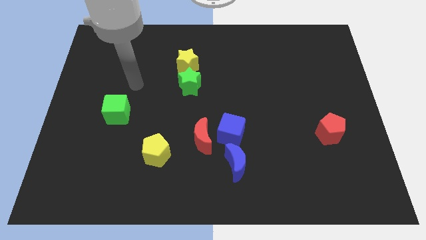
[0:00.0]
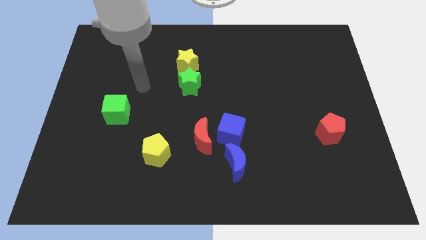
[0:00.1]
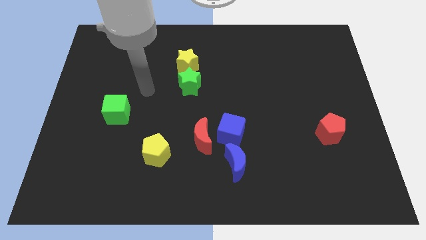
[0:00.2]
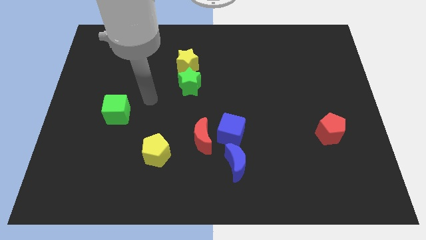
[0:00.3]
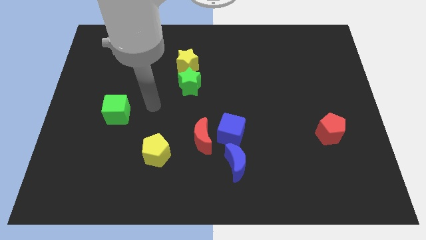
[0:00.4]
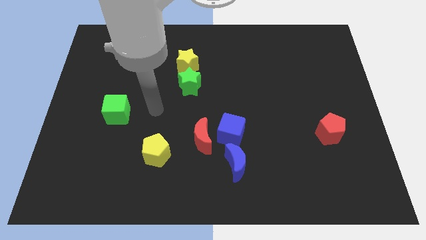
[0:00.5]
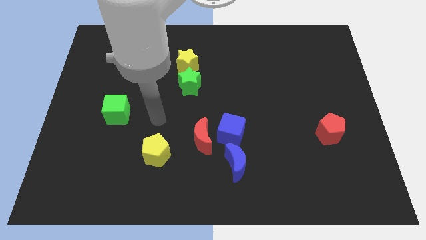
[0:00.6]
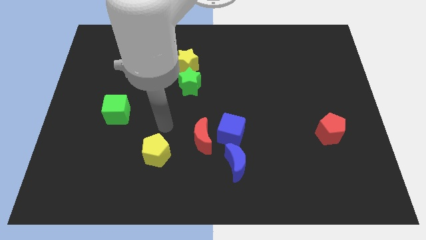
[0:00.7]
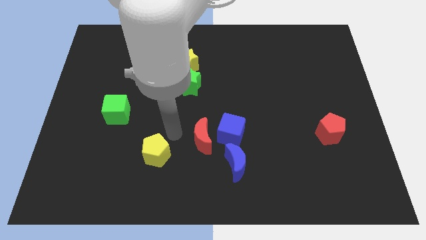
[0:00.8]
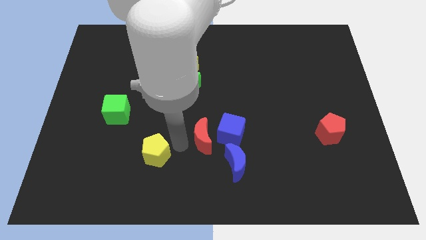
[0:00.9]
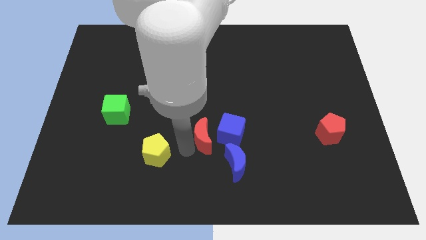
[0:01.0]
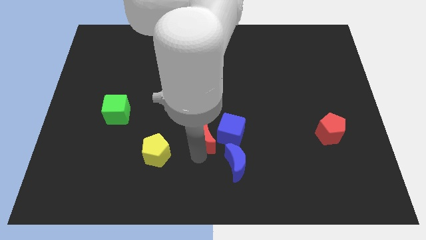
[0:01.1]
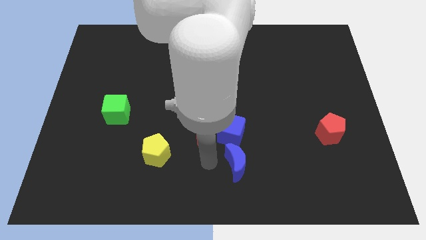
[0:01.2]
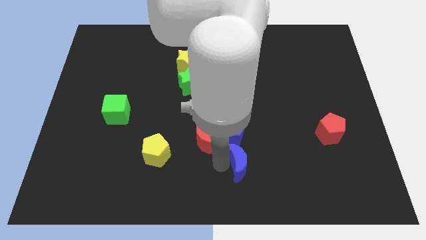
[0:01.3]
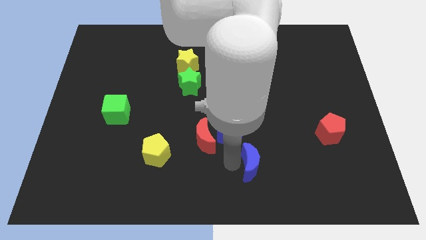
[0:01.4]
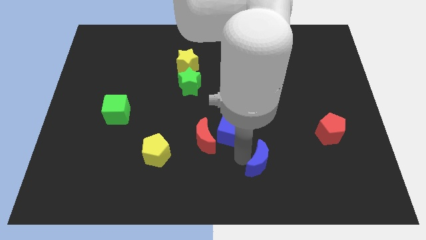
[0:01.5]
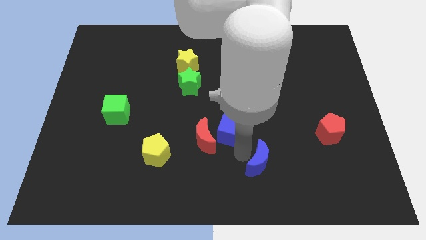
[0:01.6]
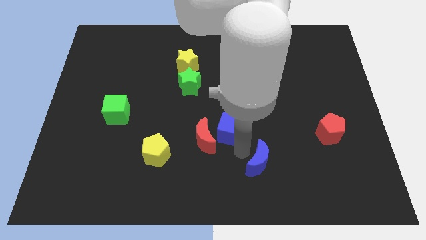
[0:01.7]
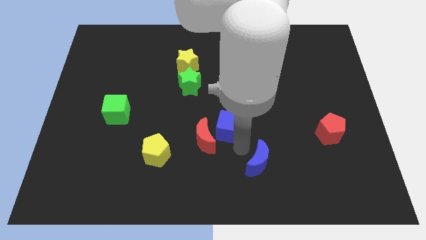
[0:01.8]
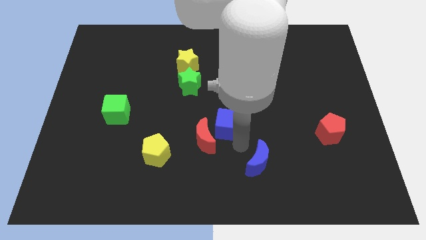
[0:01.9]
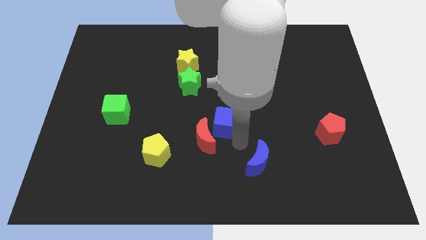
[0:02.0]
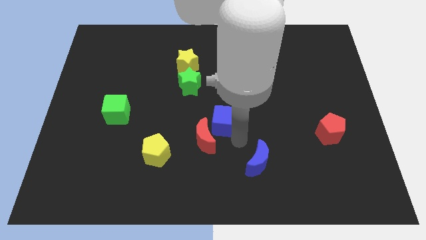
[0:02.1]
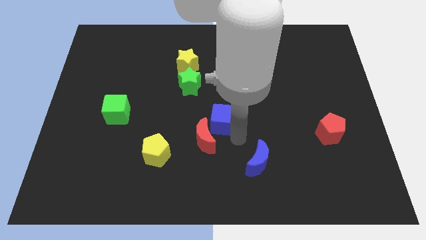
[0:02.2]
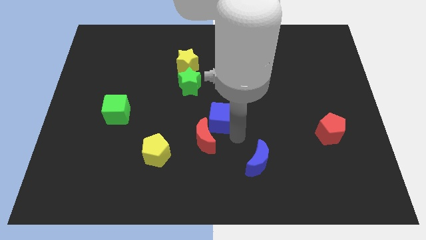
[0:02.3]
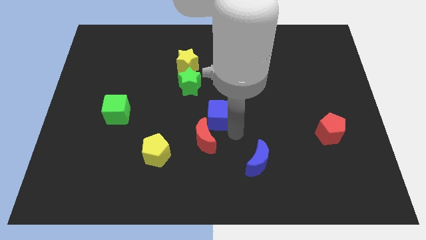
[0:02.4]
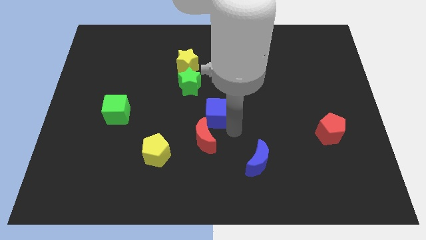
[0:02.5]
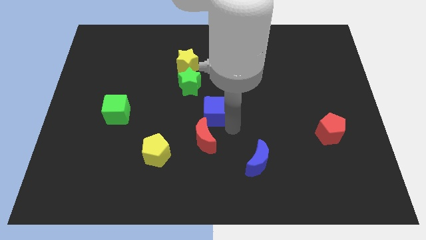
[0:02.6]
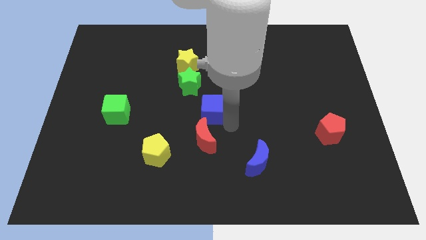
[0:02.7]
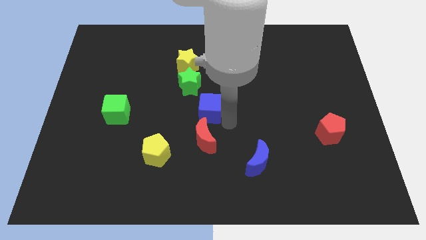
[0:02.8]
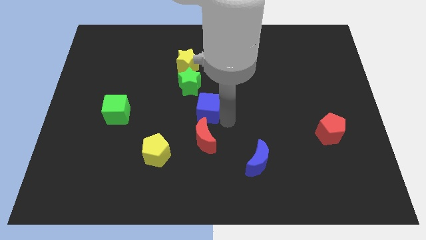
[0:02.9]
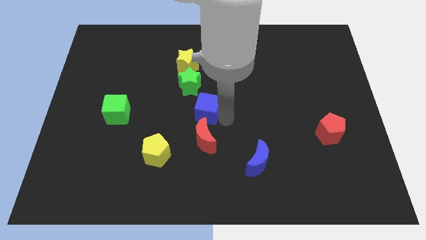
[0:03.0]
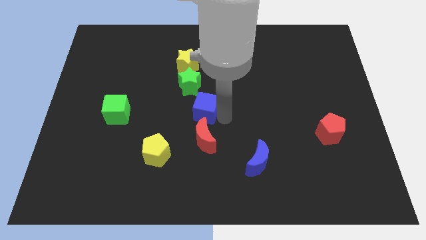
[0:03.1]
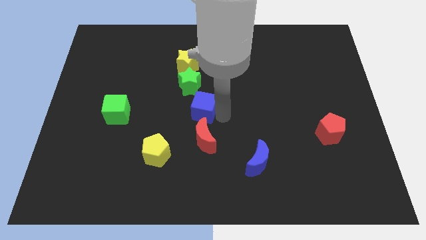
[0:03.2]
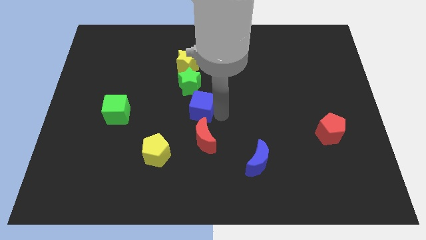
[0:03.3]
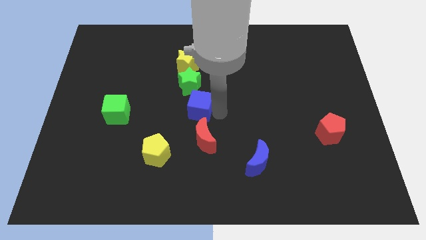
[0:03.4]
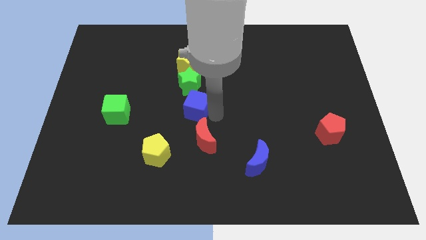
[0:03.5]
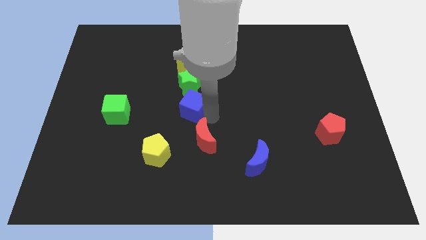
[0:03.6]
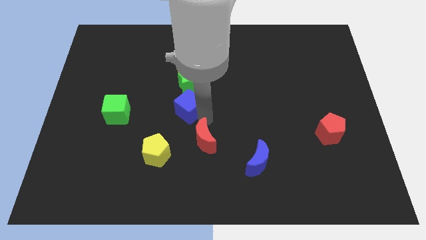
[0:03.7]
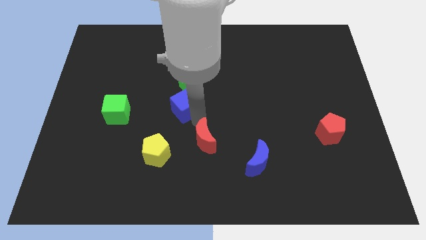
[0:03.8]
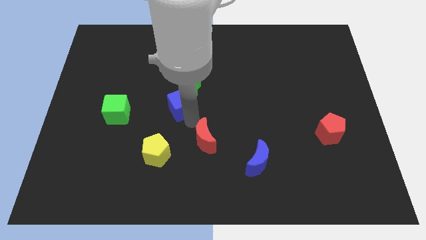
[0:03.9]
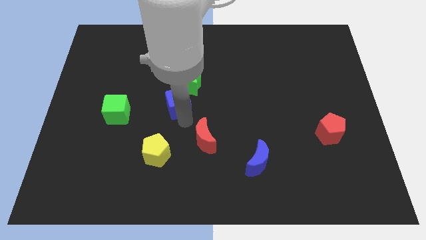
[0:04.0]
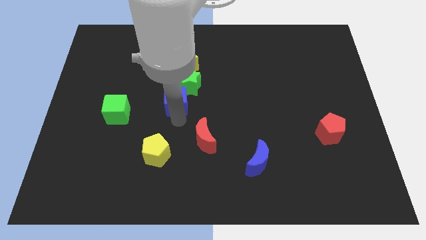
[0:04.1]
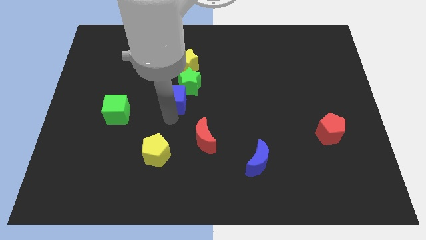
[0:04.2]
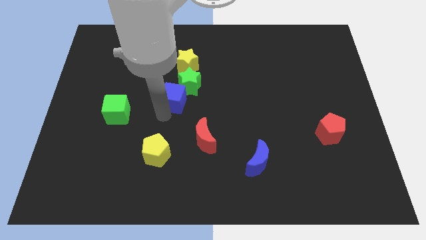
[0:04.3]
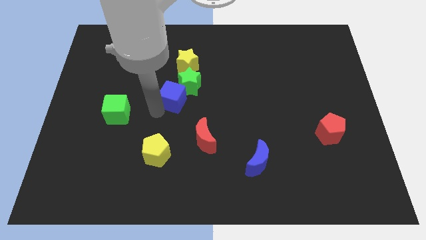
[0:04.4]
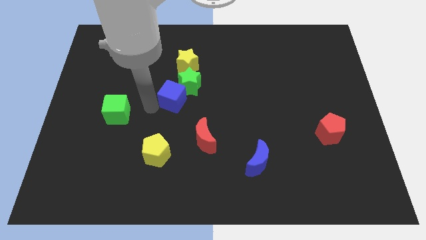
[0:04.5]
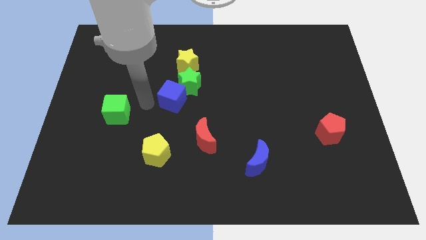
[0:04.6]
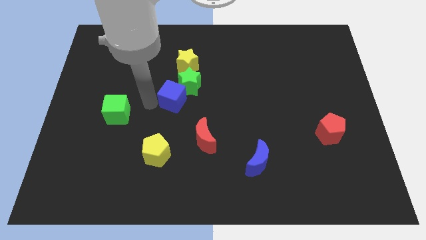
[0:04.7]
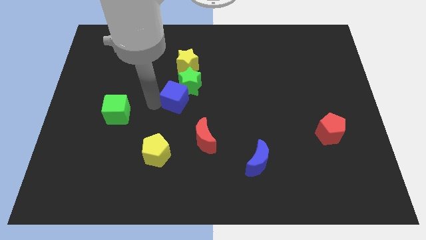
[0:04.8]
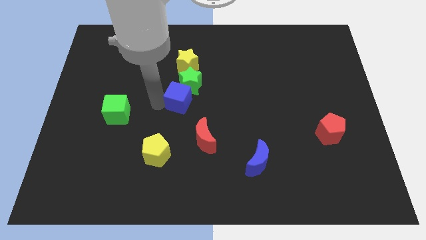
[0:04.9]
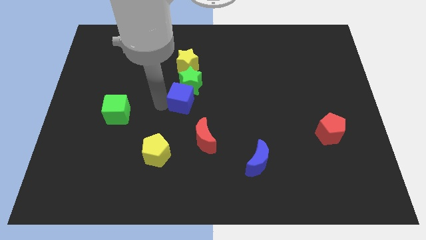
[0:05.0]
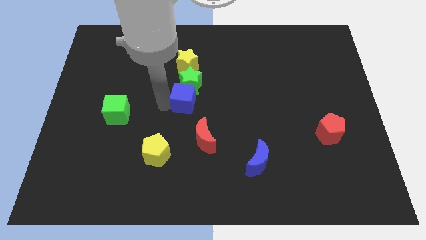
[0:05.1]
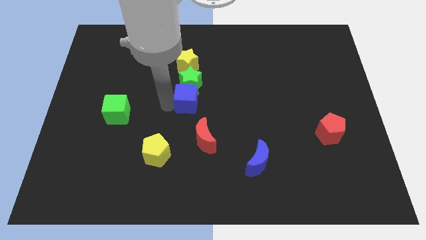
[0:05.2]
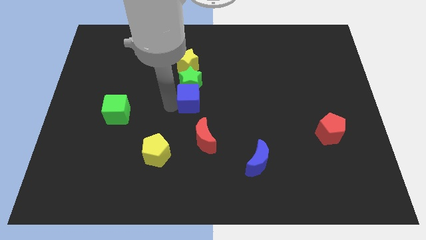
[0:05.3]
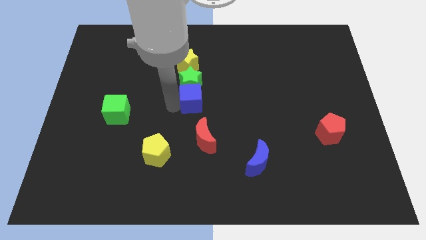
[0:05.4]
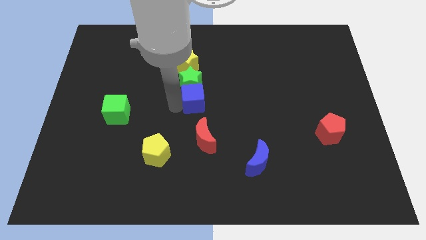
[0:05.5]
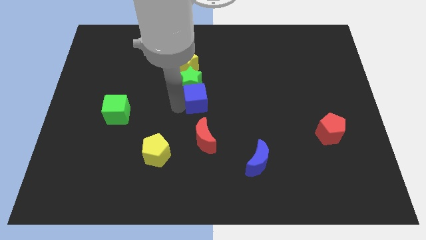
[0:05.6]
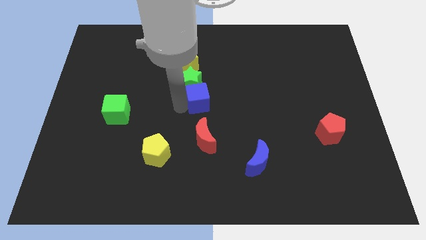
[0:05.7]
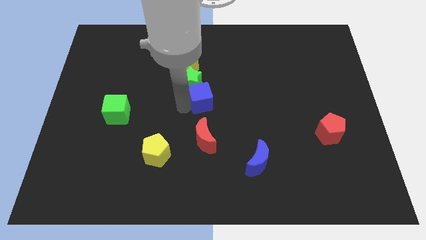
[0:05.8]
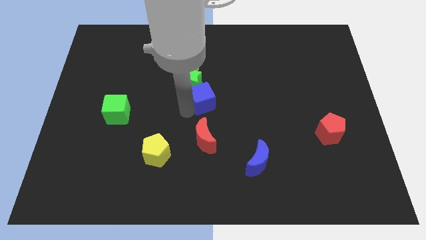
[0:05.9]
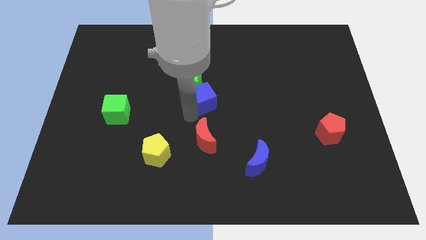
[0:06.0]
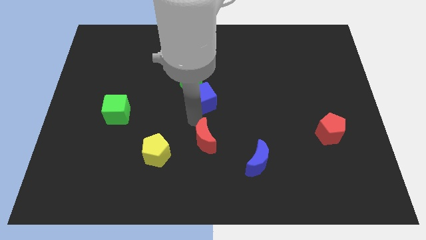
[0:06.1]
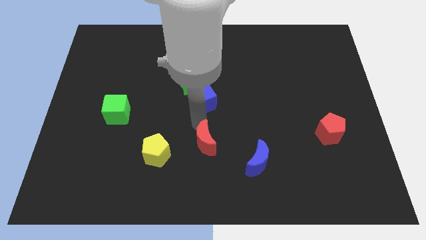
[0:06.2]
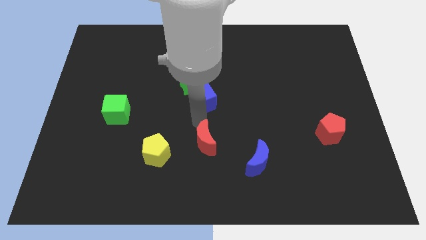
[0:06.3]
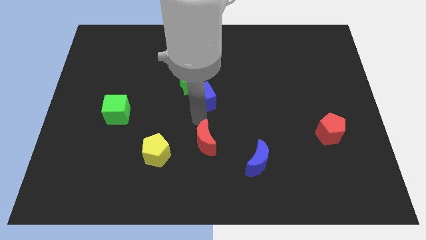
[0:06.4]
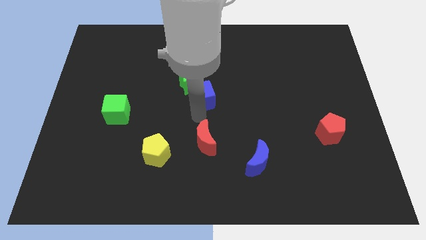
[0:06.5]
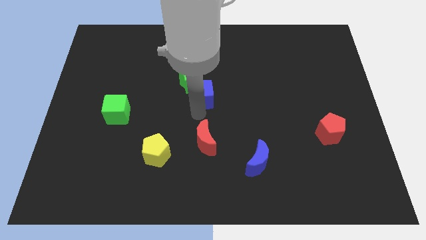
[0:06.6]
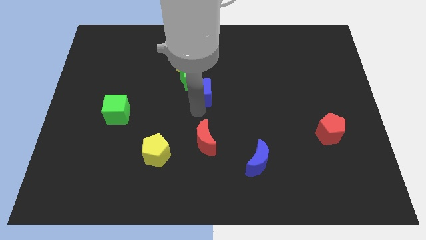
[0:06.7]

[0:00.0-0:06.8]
move the blue cube to the bottom right of the yellow star

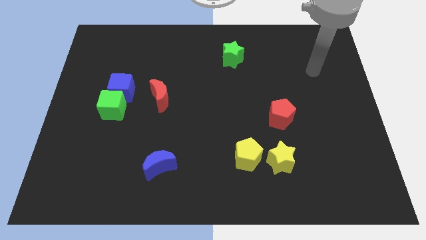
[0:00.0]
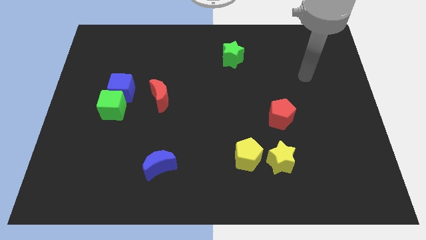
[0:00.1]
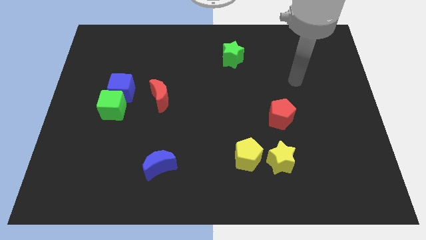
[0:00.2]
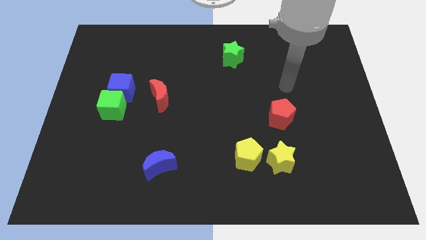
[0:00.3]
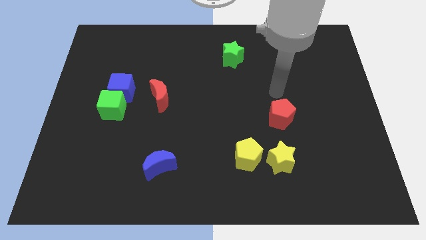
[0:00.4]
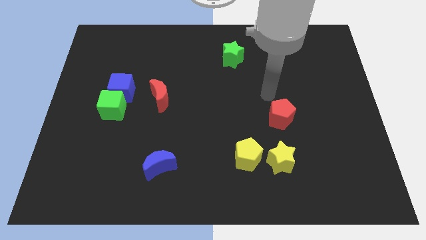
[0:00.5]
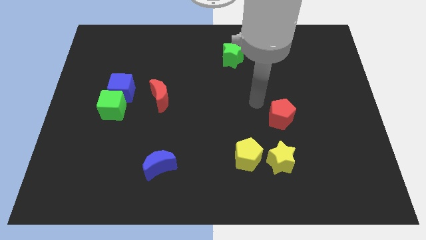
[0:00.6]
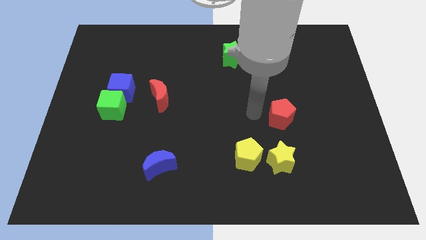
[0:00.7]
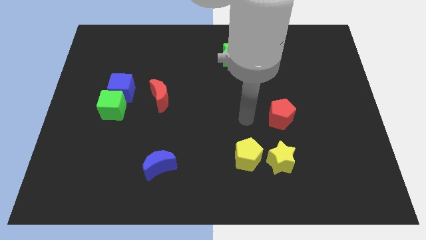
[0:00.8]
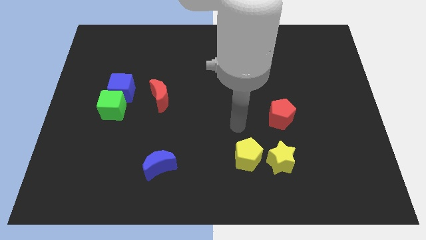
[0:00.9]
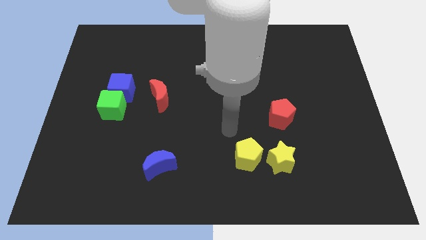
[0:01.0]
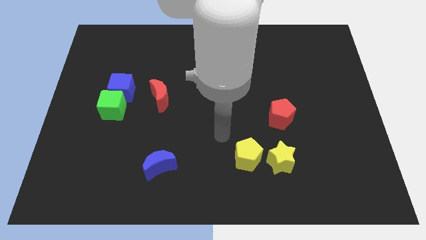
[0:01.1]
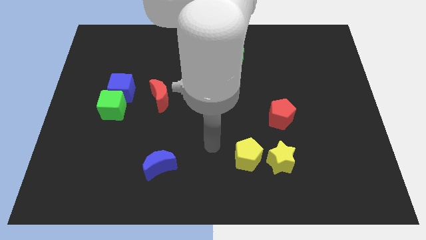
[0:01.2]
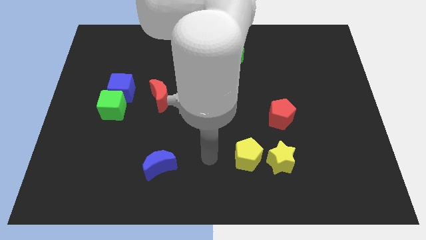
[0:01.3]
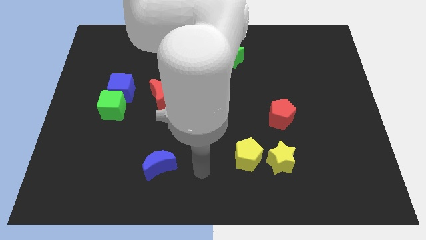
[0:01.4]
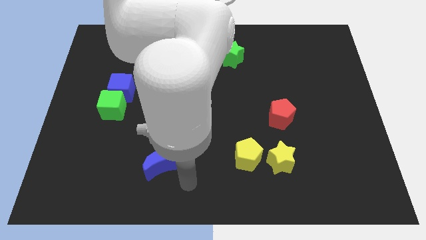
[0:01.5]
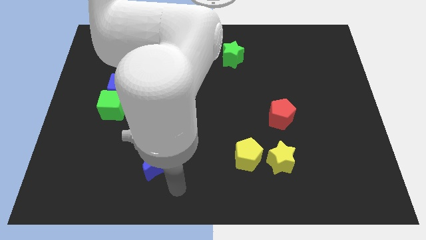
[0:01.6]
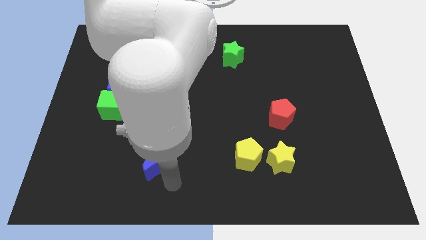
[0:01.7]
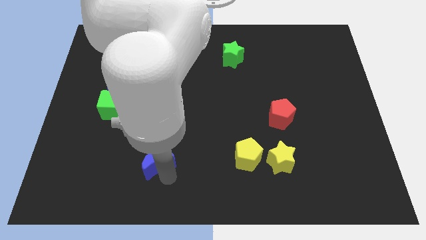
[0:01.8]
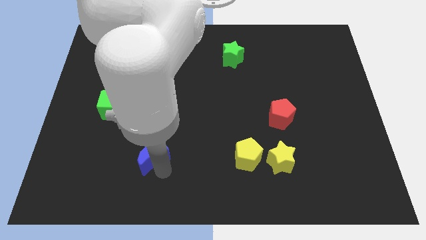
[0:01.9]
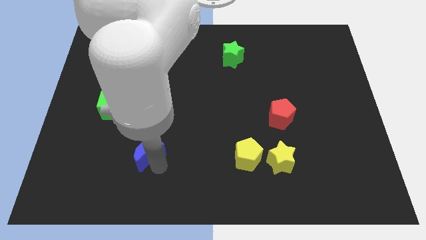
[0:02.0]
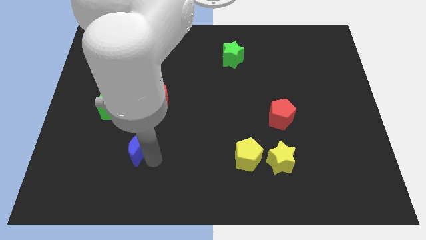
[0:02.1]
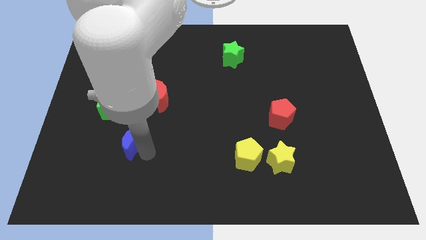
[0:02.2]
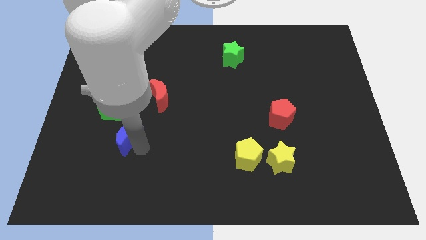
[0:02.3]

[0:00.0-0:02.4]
slide the blue moon to the bottom side of the blue cube
